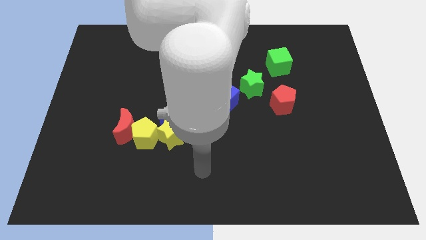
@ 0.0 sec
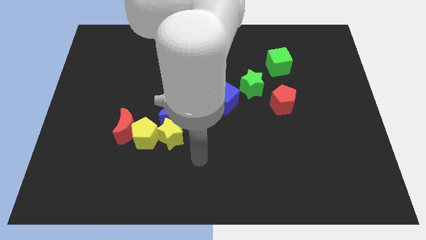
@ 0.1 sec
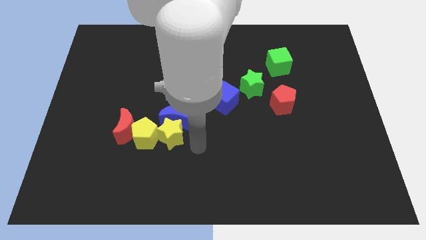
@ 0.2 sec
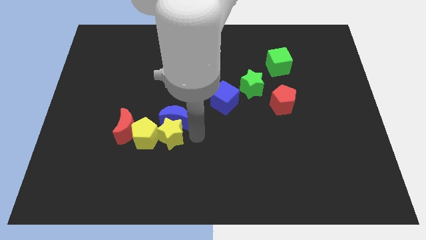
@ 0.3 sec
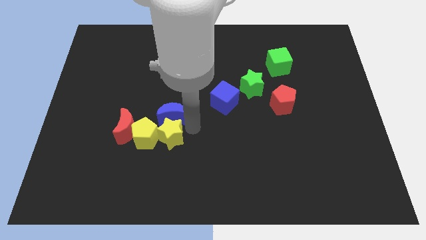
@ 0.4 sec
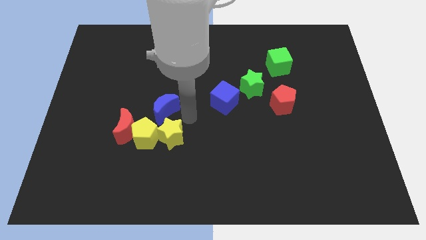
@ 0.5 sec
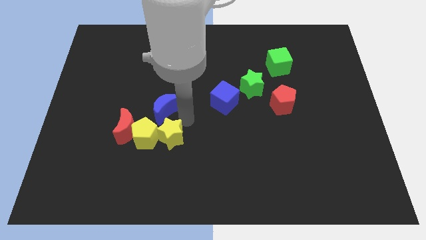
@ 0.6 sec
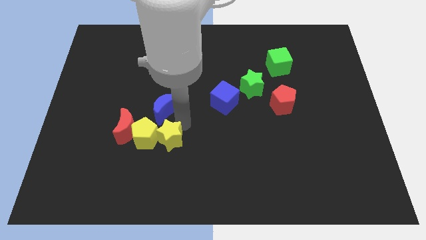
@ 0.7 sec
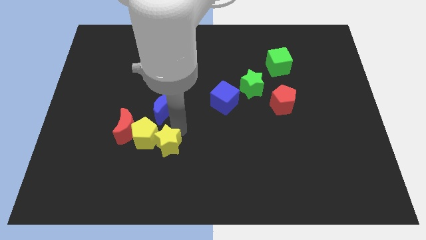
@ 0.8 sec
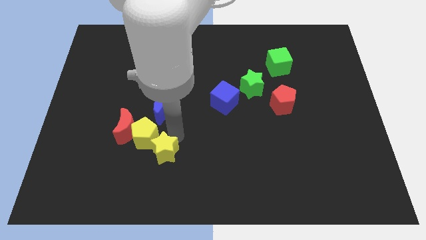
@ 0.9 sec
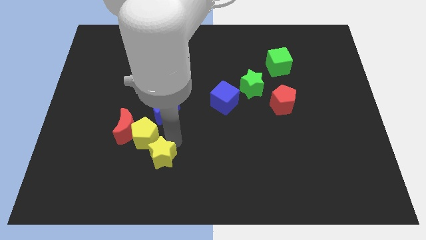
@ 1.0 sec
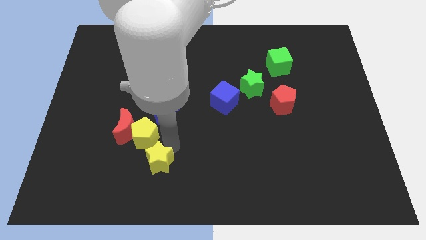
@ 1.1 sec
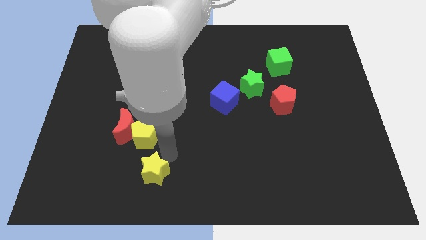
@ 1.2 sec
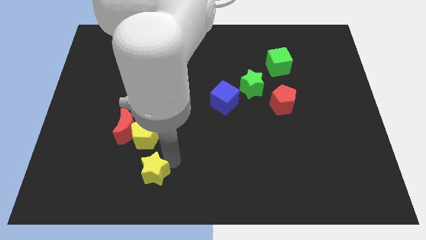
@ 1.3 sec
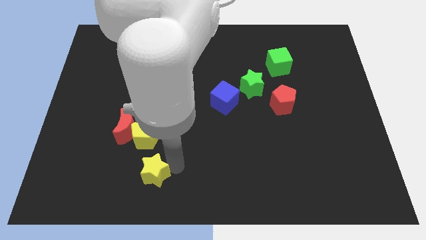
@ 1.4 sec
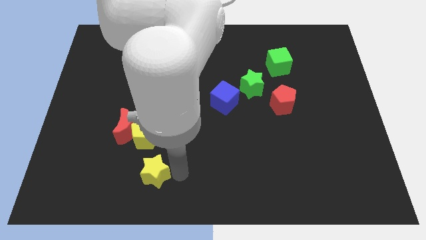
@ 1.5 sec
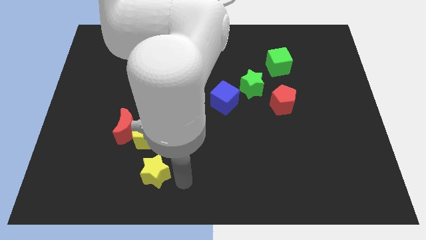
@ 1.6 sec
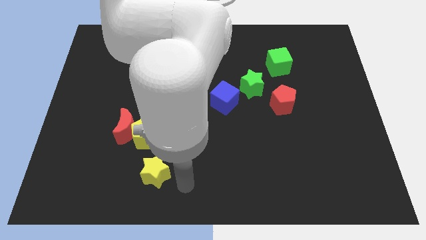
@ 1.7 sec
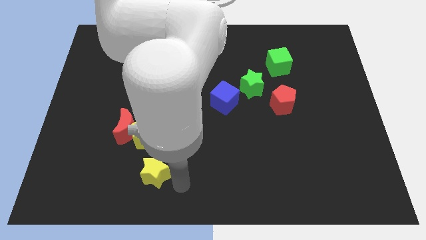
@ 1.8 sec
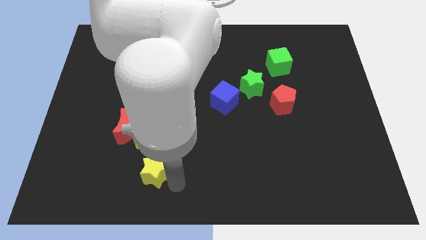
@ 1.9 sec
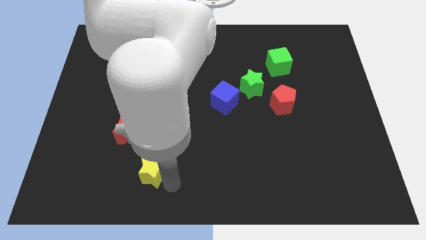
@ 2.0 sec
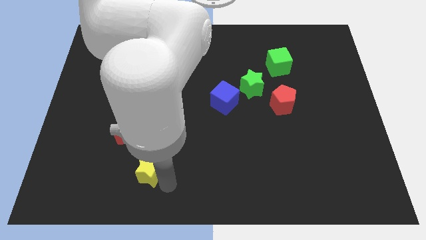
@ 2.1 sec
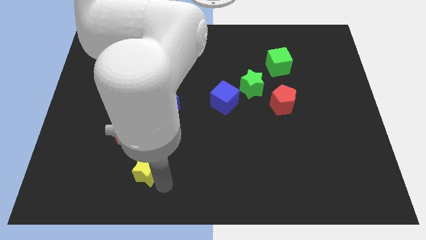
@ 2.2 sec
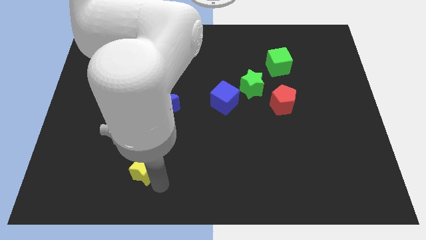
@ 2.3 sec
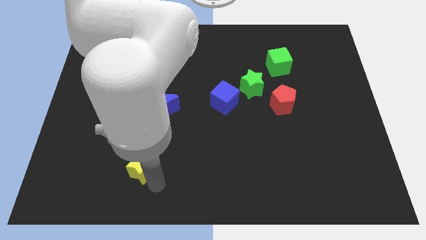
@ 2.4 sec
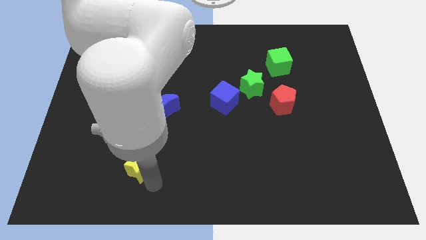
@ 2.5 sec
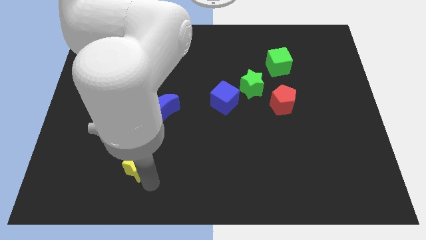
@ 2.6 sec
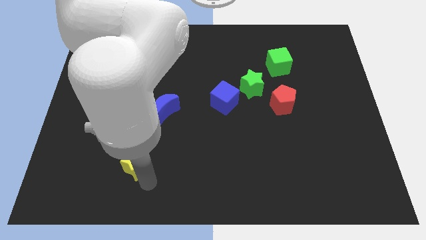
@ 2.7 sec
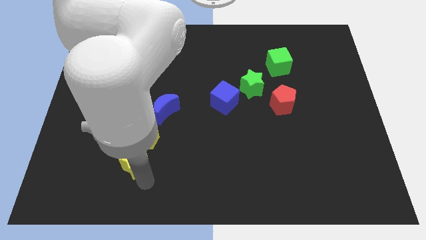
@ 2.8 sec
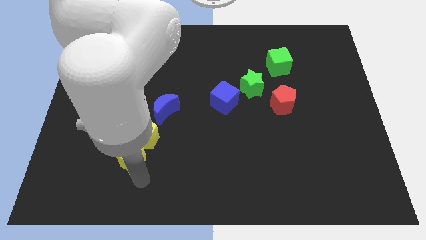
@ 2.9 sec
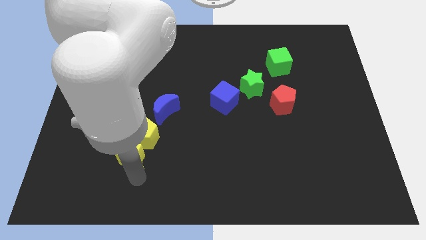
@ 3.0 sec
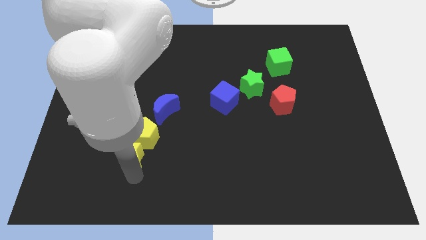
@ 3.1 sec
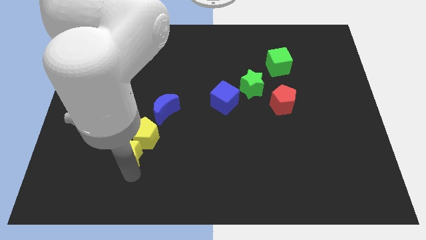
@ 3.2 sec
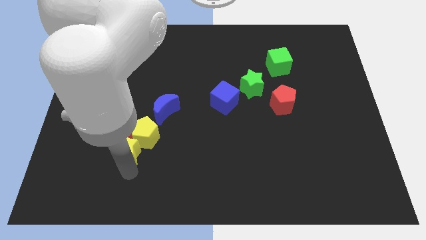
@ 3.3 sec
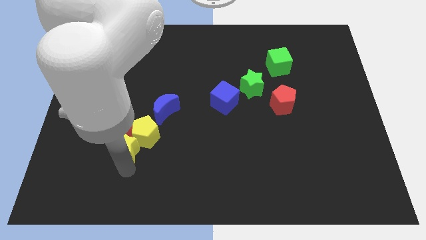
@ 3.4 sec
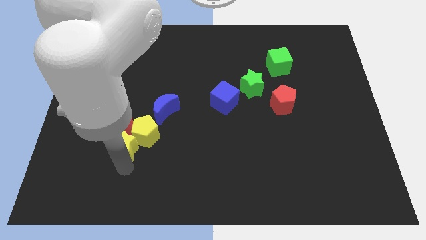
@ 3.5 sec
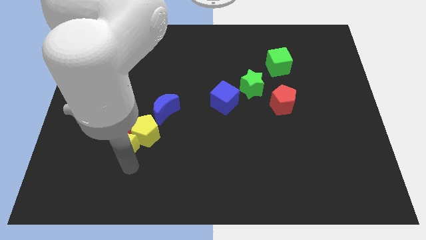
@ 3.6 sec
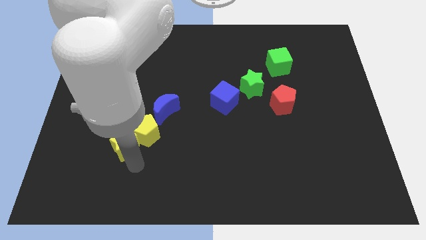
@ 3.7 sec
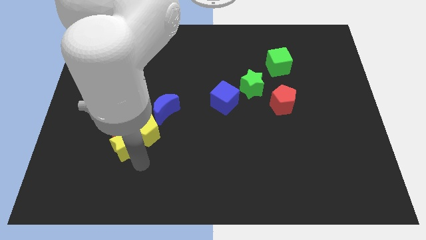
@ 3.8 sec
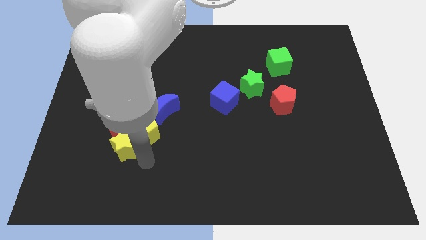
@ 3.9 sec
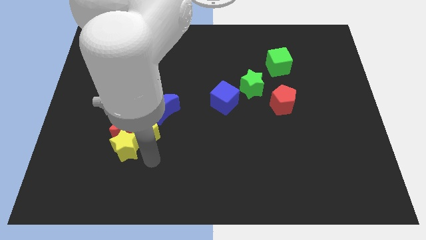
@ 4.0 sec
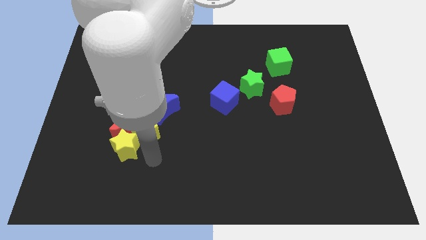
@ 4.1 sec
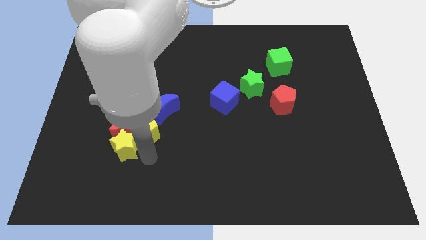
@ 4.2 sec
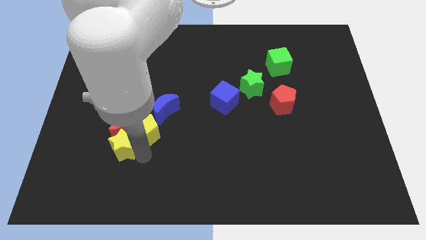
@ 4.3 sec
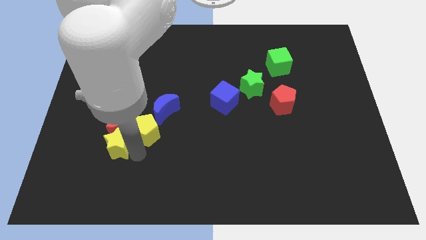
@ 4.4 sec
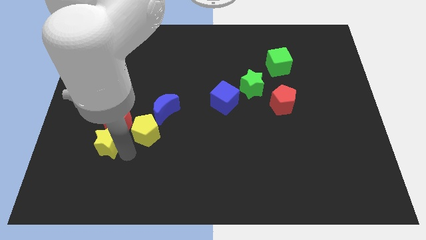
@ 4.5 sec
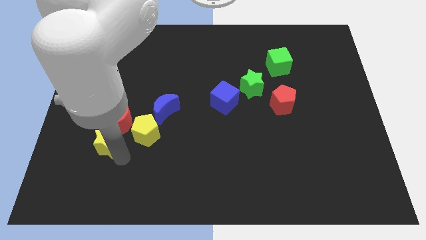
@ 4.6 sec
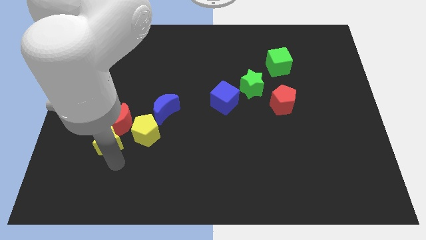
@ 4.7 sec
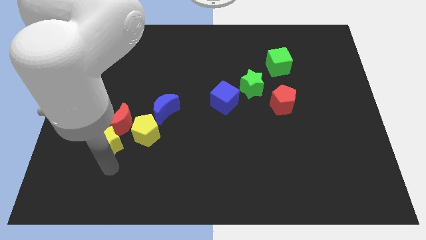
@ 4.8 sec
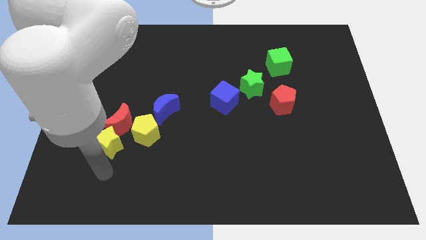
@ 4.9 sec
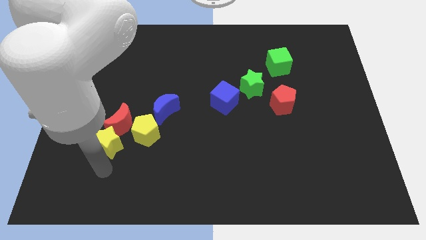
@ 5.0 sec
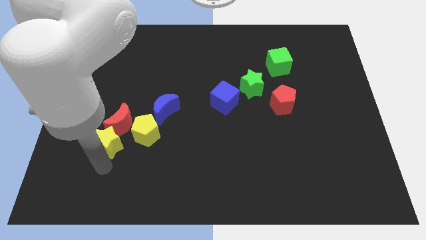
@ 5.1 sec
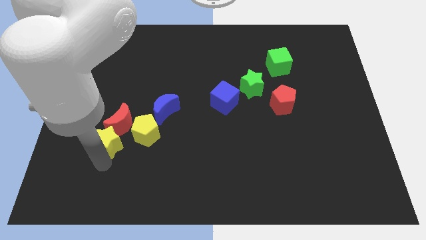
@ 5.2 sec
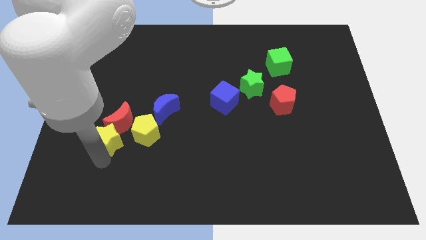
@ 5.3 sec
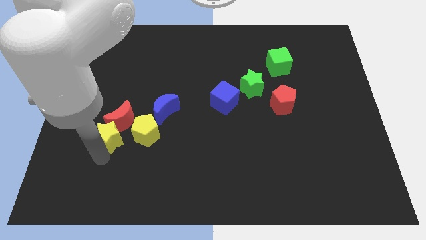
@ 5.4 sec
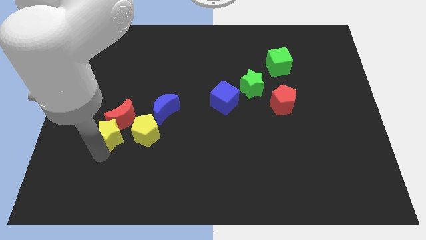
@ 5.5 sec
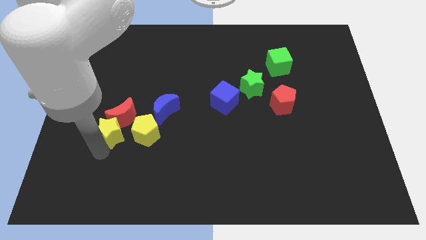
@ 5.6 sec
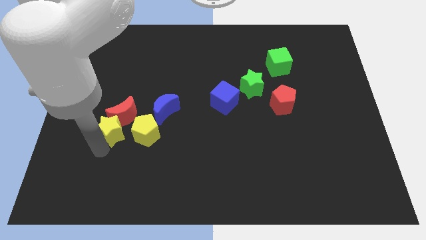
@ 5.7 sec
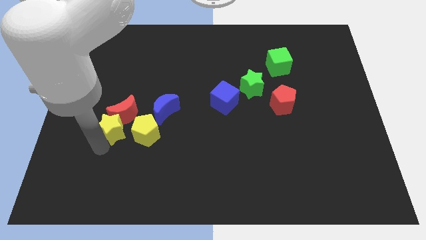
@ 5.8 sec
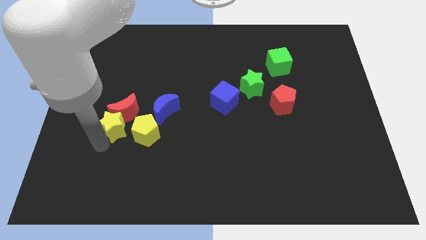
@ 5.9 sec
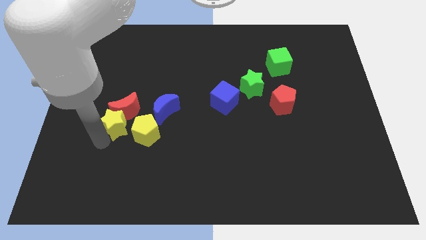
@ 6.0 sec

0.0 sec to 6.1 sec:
push the yellow star left of the blue moon
